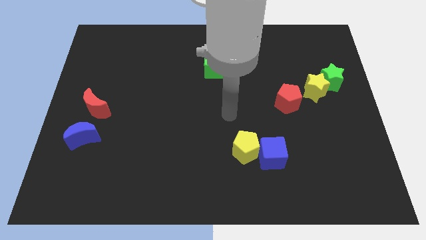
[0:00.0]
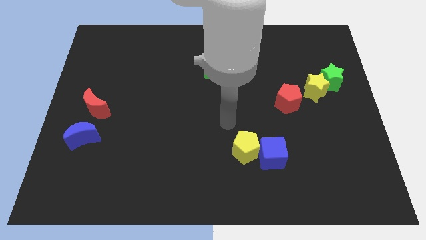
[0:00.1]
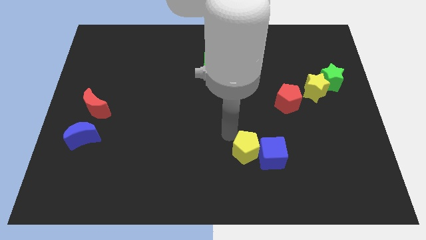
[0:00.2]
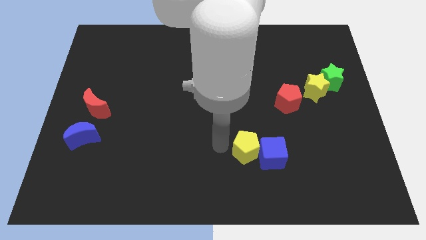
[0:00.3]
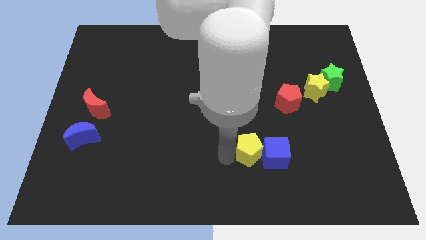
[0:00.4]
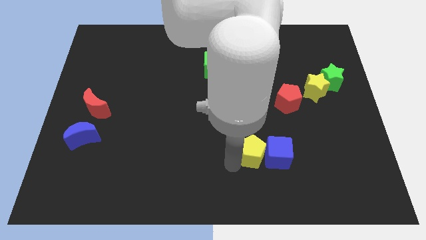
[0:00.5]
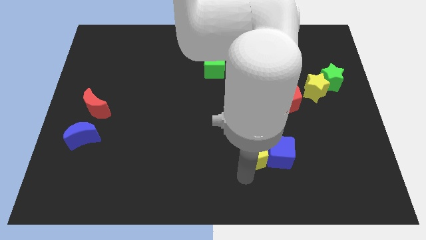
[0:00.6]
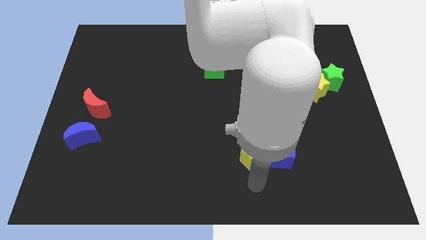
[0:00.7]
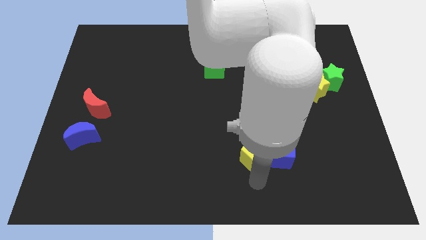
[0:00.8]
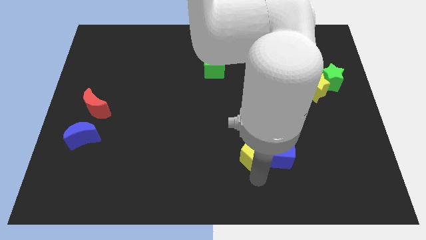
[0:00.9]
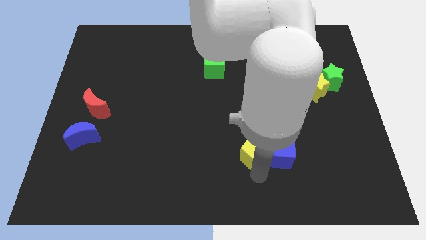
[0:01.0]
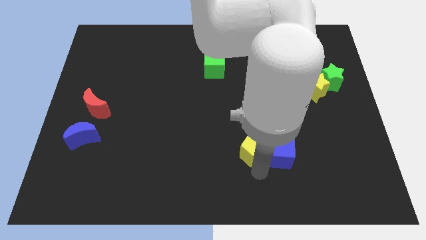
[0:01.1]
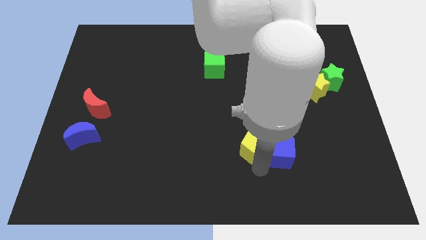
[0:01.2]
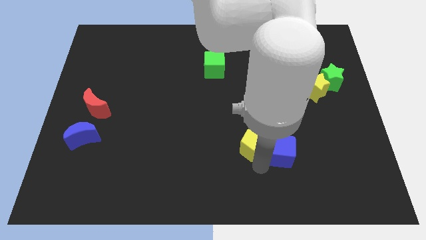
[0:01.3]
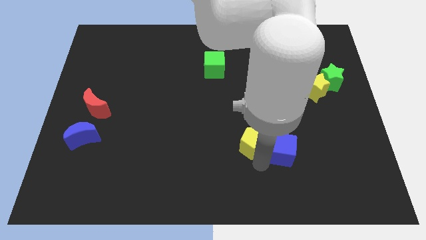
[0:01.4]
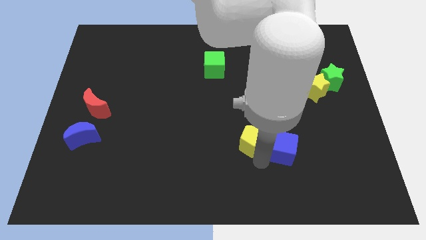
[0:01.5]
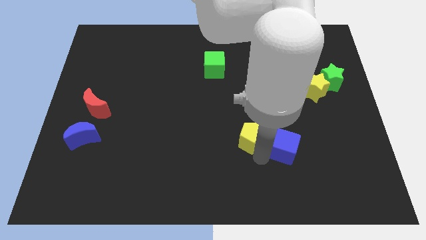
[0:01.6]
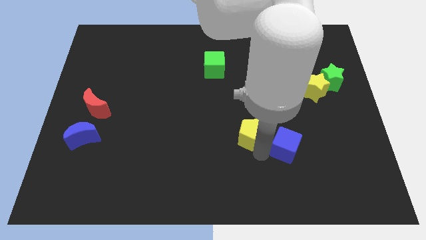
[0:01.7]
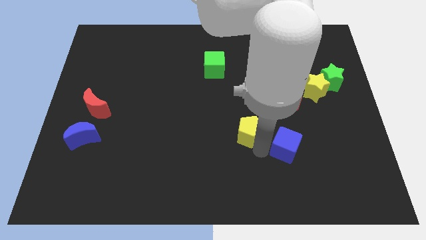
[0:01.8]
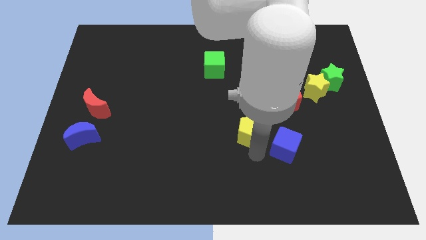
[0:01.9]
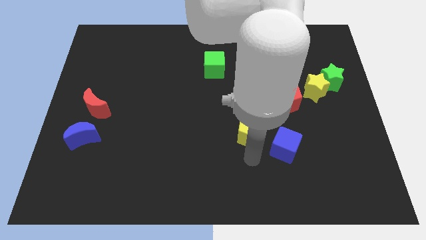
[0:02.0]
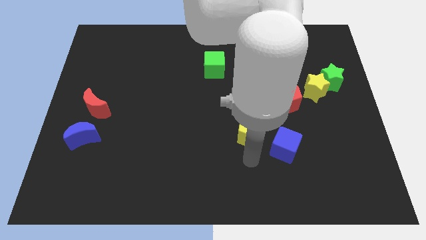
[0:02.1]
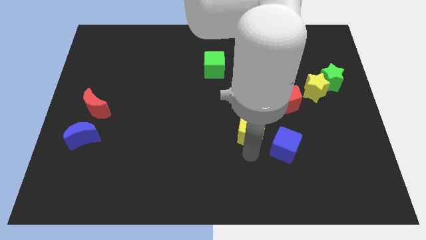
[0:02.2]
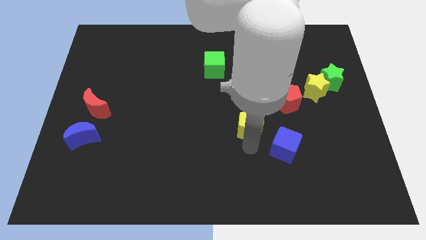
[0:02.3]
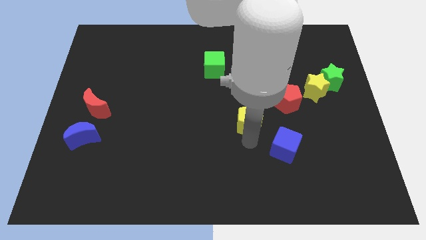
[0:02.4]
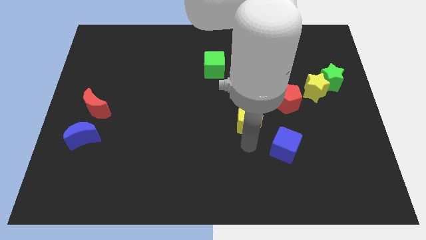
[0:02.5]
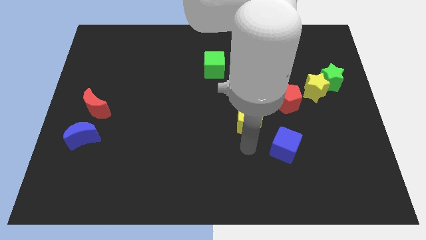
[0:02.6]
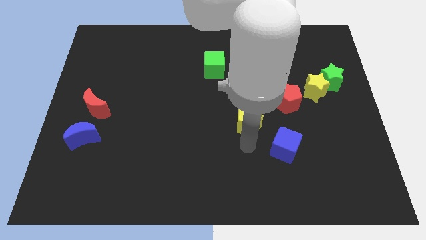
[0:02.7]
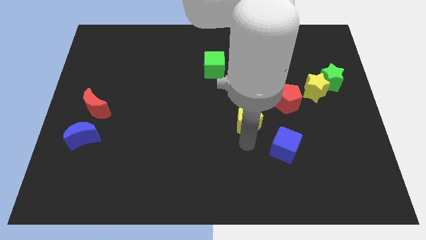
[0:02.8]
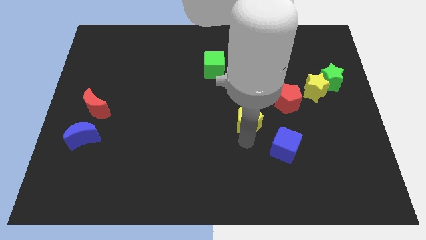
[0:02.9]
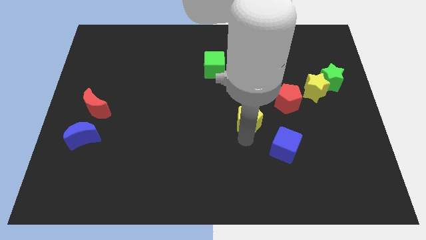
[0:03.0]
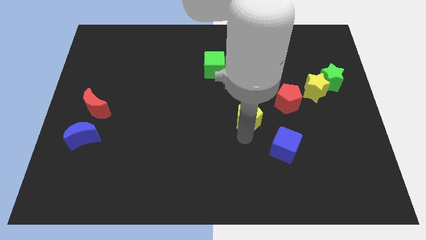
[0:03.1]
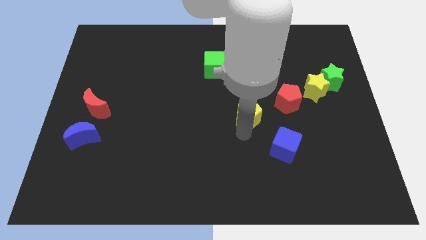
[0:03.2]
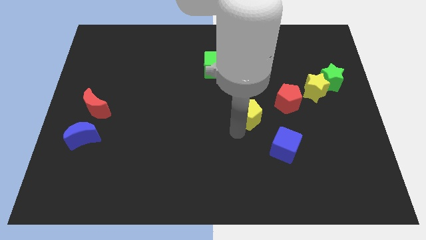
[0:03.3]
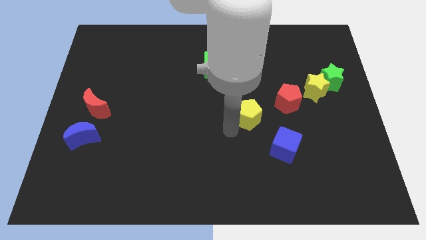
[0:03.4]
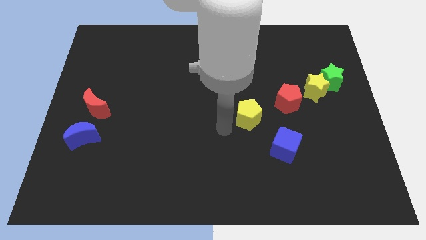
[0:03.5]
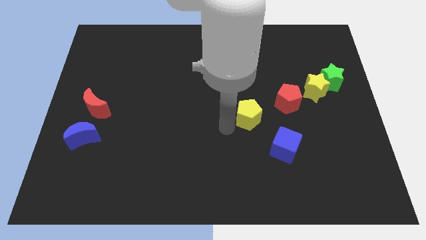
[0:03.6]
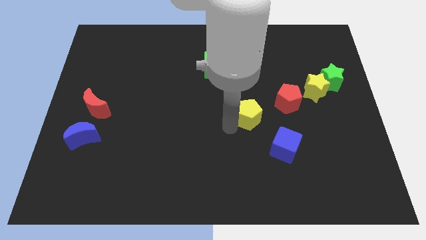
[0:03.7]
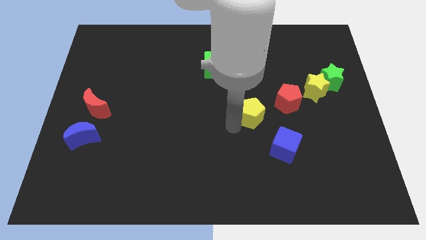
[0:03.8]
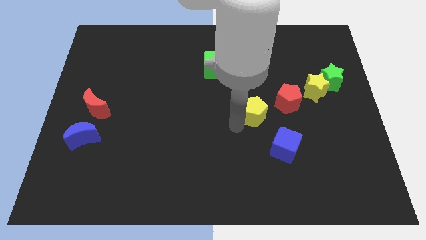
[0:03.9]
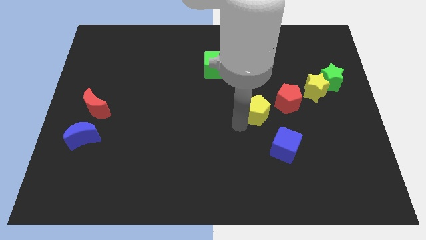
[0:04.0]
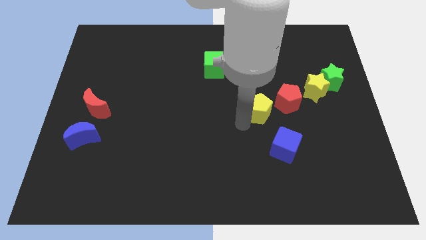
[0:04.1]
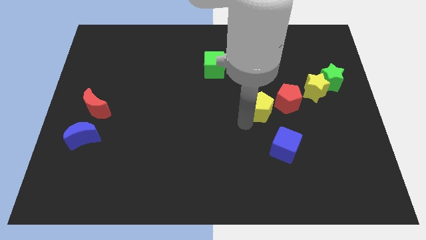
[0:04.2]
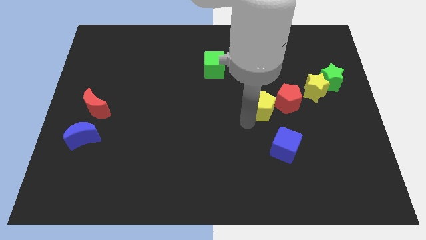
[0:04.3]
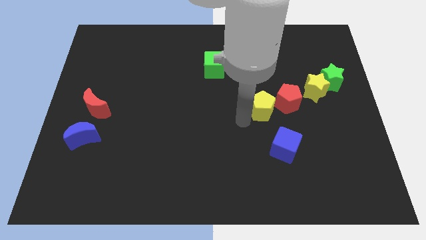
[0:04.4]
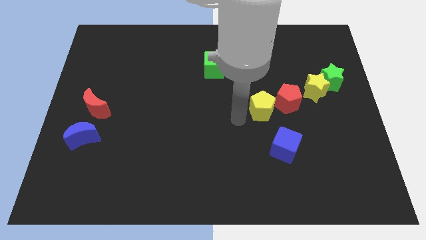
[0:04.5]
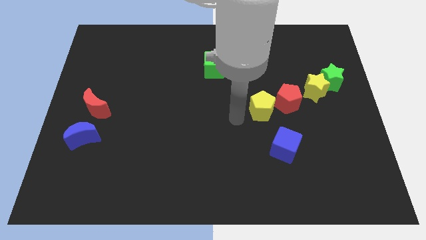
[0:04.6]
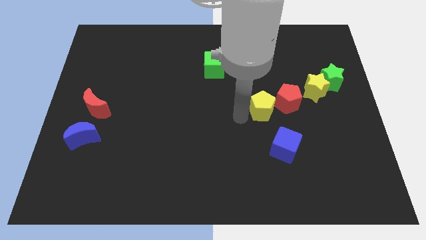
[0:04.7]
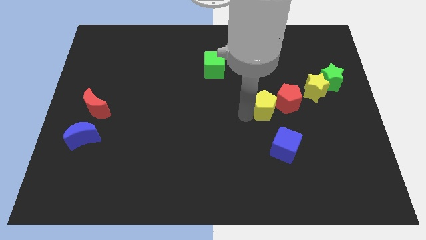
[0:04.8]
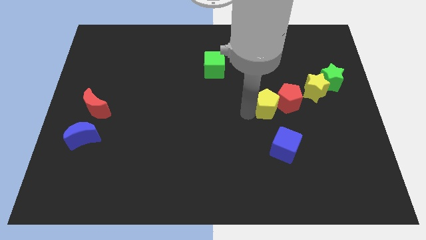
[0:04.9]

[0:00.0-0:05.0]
move the yellow pentagon next to the red pentagon

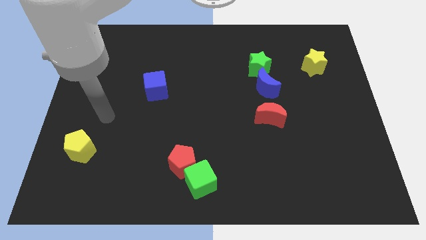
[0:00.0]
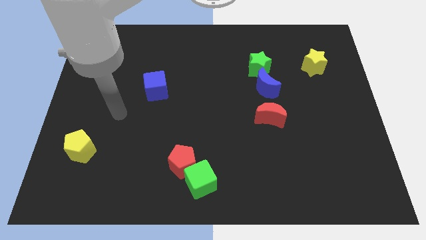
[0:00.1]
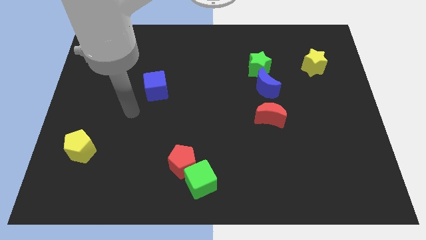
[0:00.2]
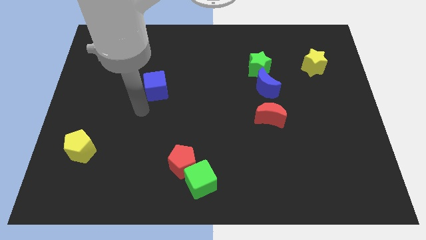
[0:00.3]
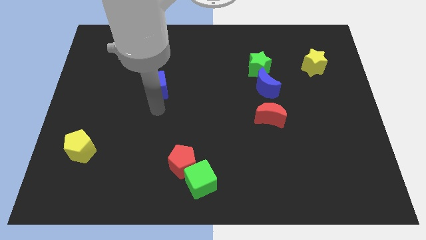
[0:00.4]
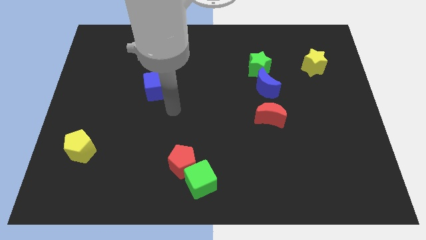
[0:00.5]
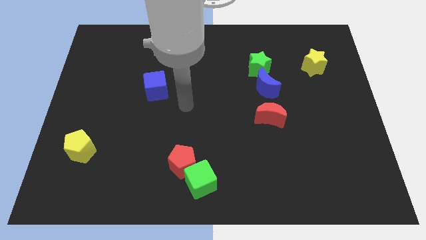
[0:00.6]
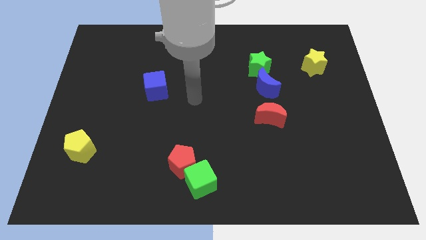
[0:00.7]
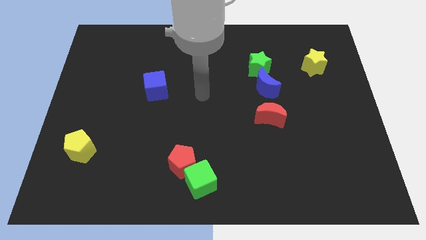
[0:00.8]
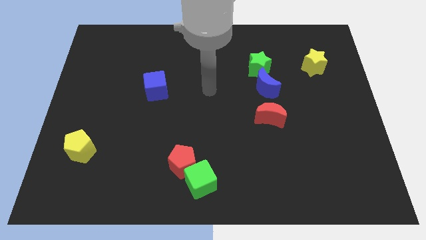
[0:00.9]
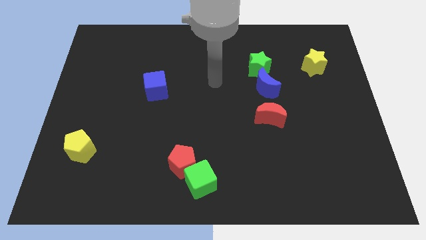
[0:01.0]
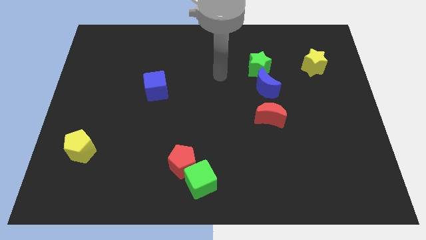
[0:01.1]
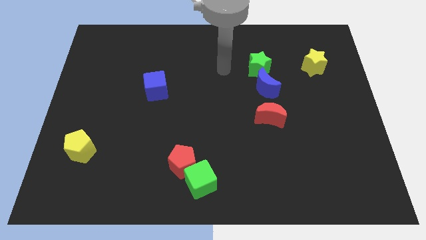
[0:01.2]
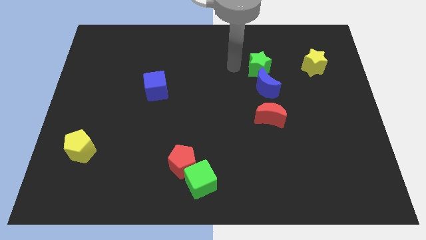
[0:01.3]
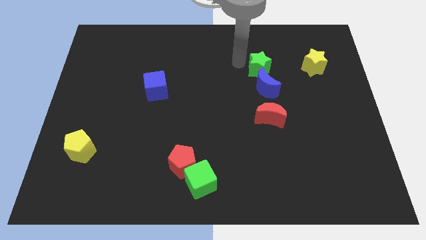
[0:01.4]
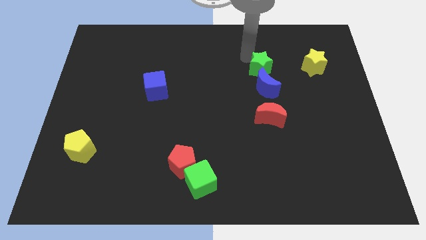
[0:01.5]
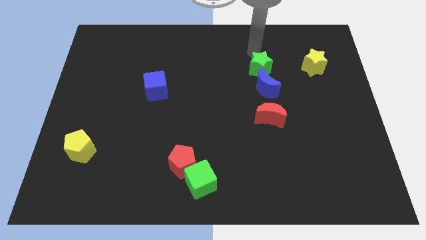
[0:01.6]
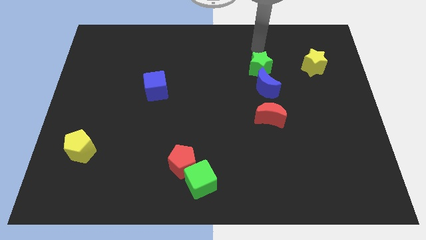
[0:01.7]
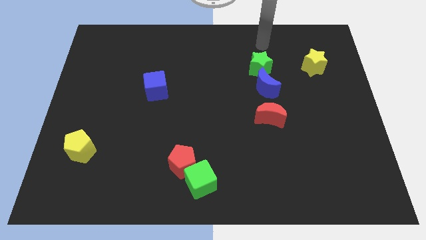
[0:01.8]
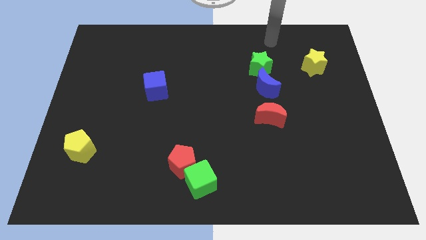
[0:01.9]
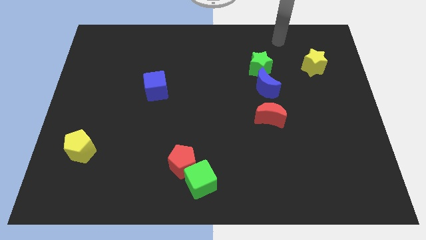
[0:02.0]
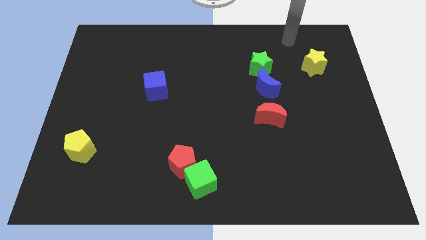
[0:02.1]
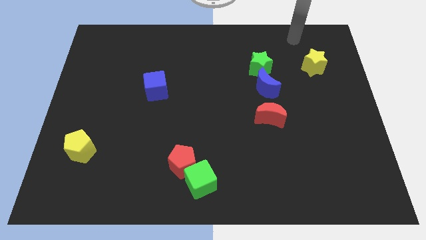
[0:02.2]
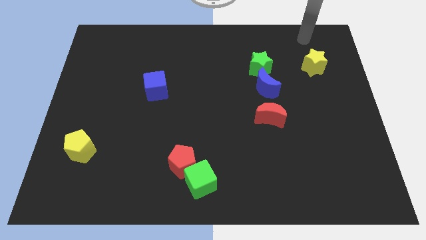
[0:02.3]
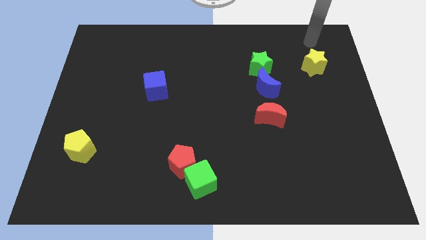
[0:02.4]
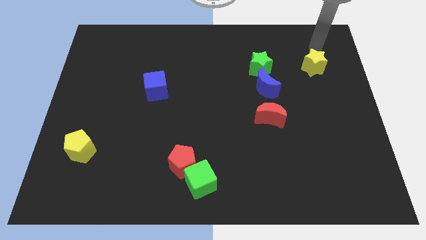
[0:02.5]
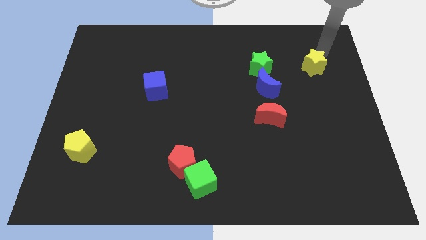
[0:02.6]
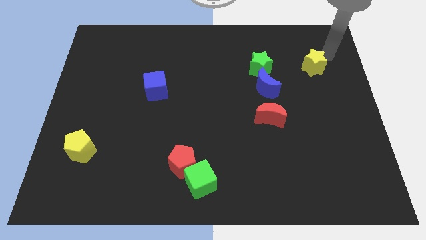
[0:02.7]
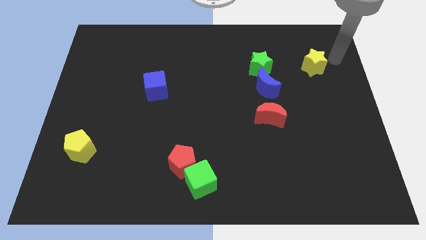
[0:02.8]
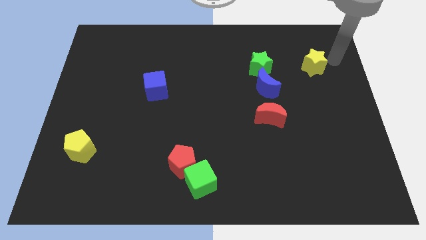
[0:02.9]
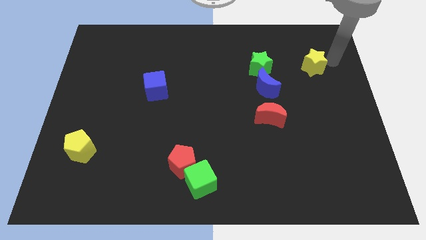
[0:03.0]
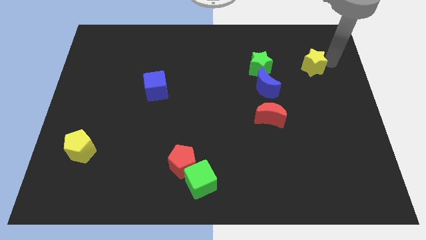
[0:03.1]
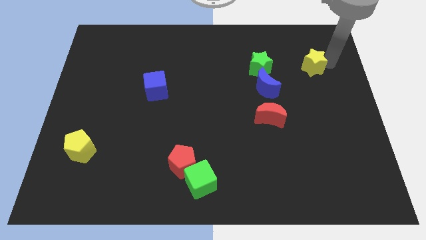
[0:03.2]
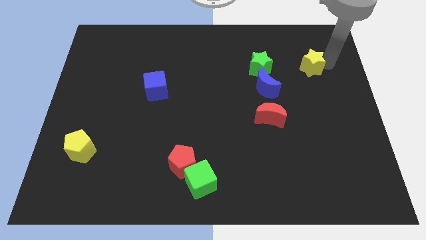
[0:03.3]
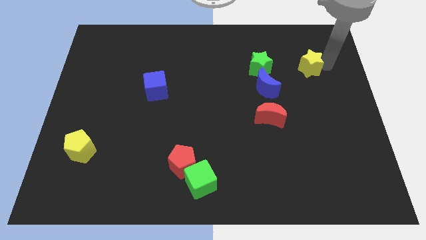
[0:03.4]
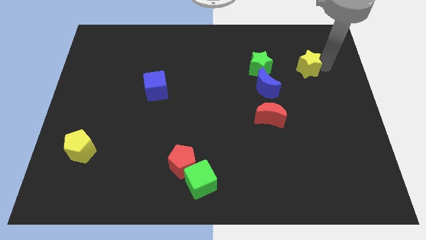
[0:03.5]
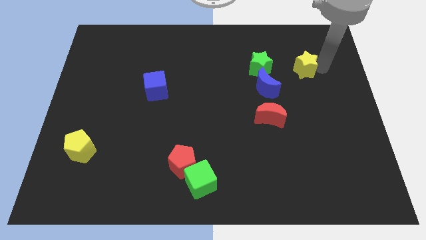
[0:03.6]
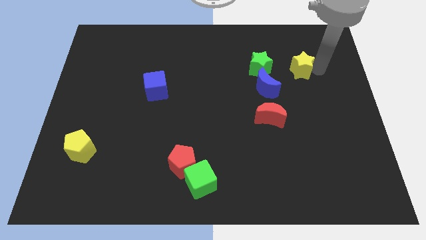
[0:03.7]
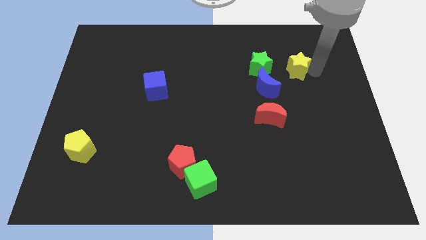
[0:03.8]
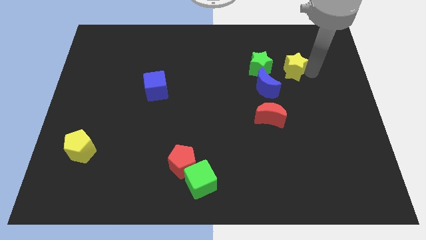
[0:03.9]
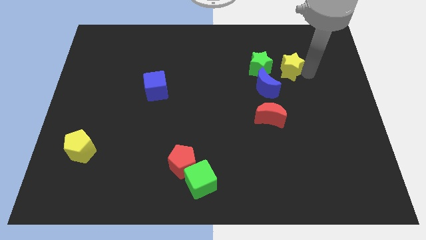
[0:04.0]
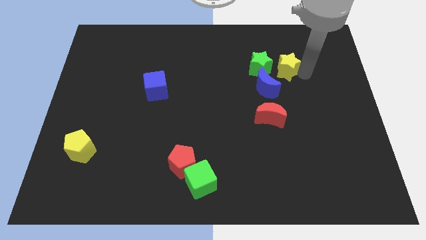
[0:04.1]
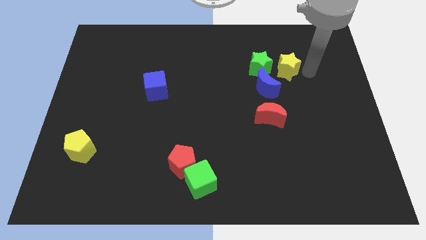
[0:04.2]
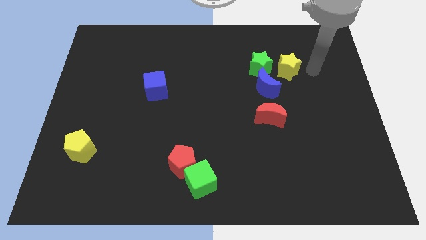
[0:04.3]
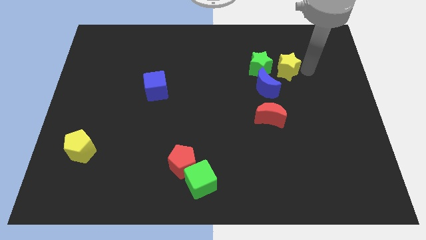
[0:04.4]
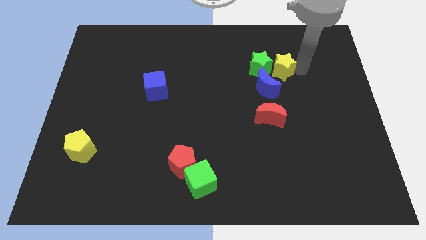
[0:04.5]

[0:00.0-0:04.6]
push the yellow star next to the green star
